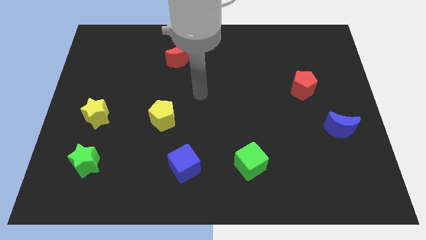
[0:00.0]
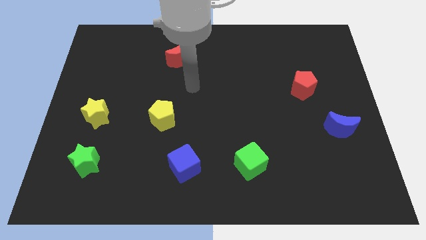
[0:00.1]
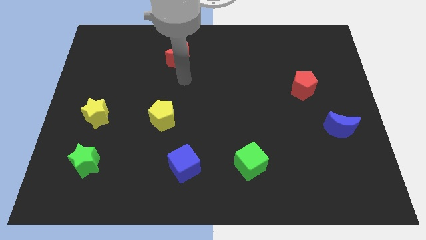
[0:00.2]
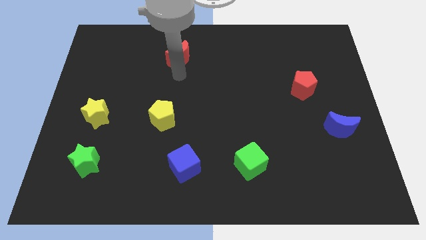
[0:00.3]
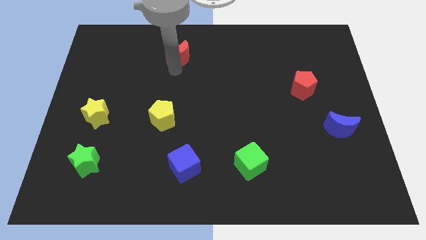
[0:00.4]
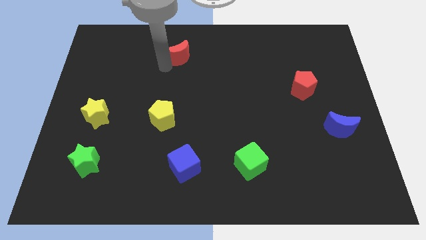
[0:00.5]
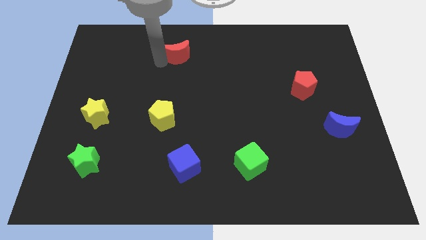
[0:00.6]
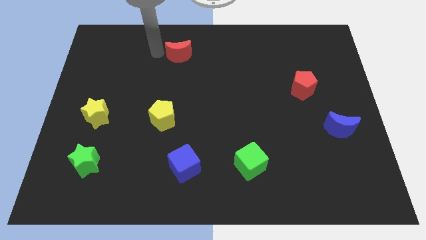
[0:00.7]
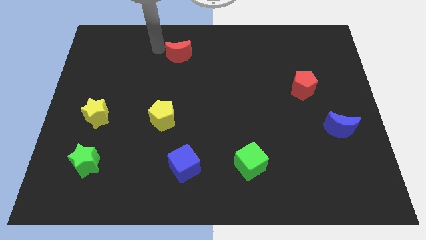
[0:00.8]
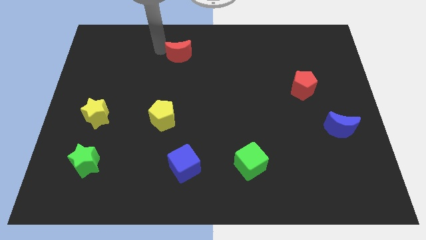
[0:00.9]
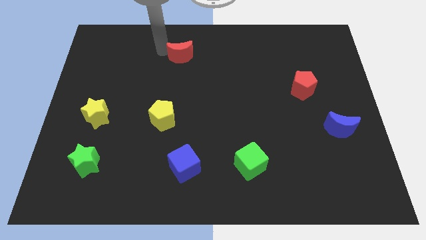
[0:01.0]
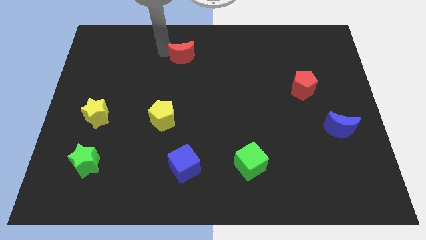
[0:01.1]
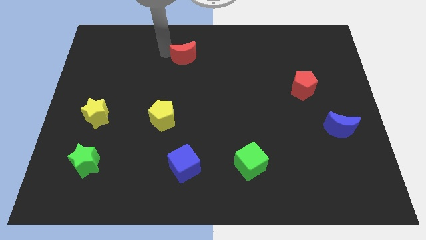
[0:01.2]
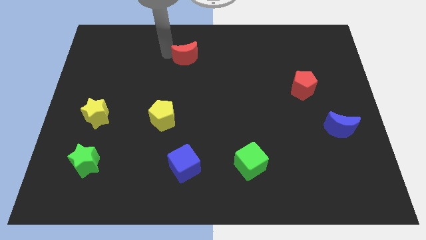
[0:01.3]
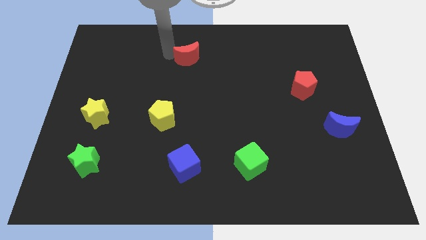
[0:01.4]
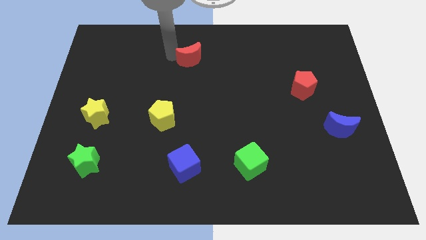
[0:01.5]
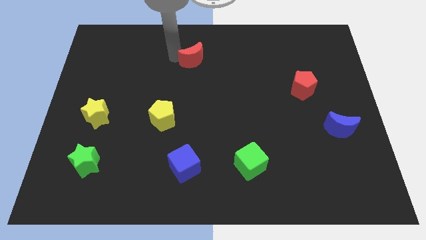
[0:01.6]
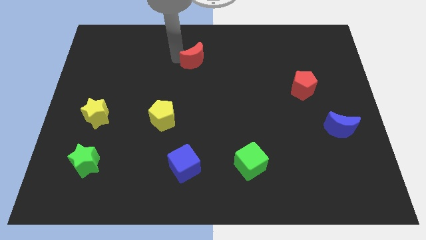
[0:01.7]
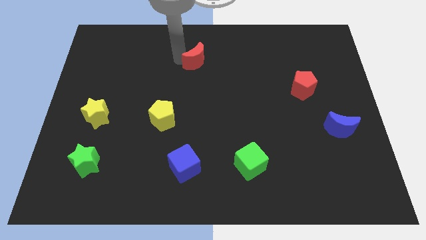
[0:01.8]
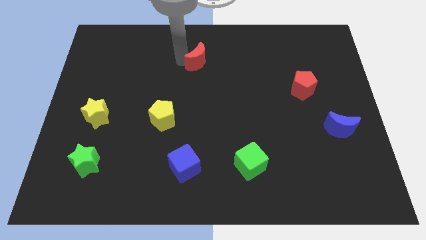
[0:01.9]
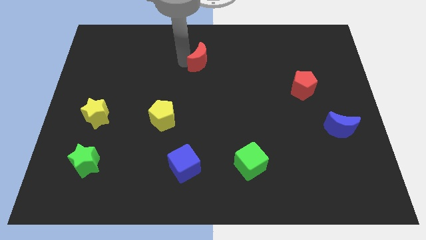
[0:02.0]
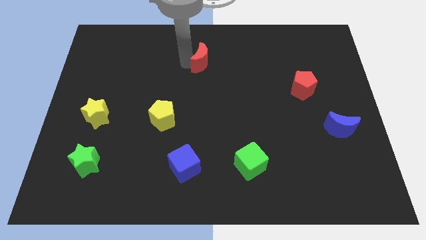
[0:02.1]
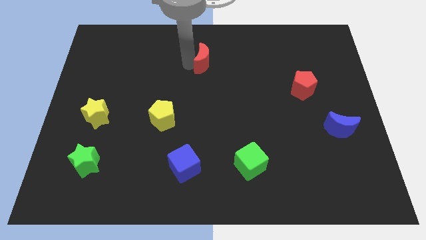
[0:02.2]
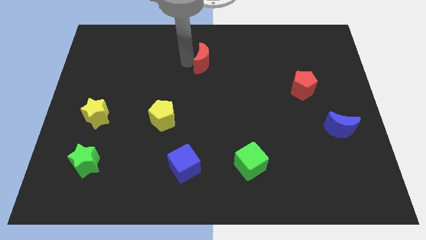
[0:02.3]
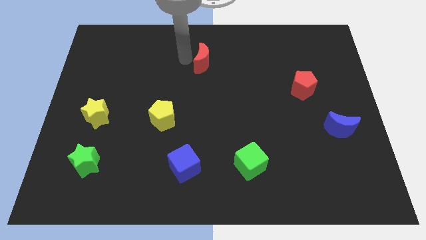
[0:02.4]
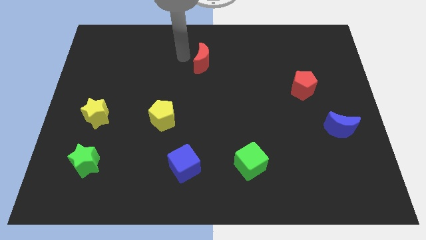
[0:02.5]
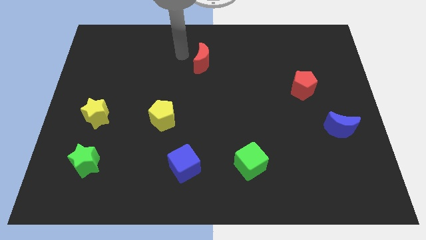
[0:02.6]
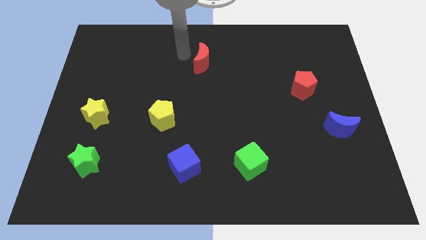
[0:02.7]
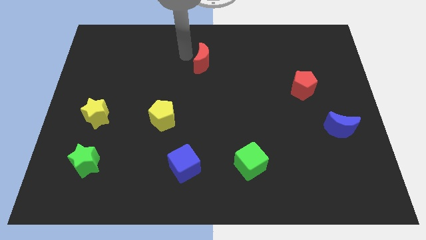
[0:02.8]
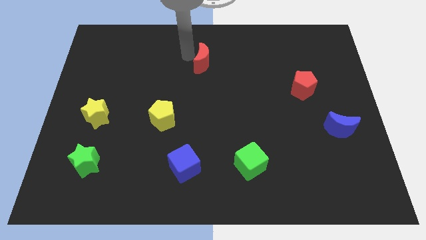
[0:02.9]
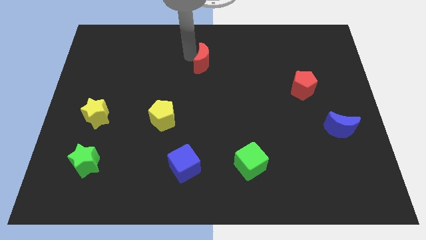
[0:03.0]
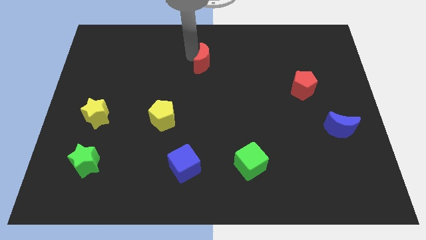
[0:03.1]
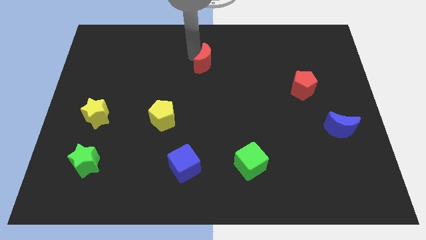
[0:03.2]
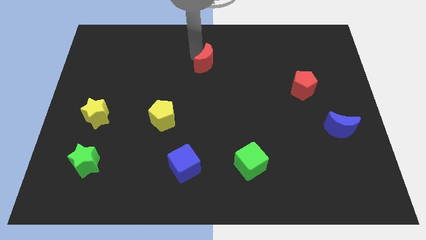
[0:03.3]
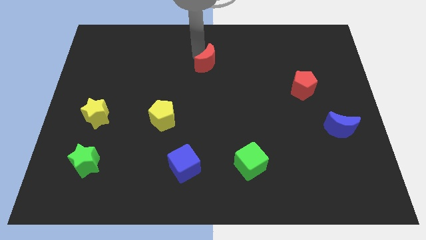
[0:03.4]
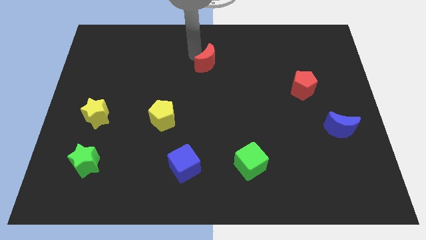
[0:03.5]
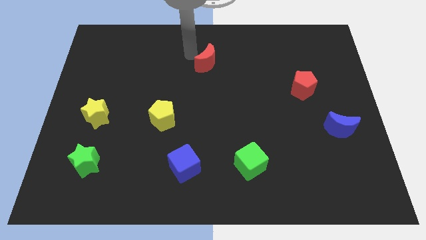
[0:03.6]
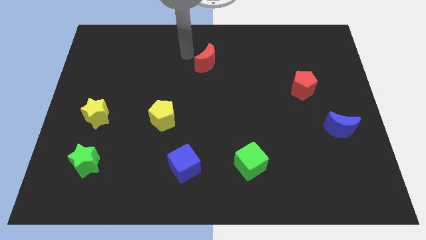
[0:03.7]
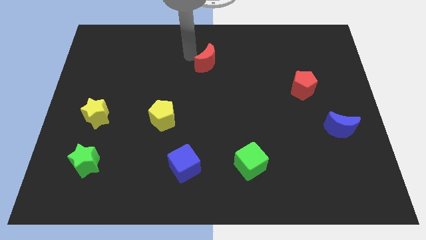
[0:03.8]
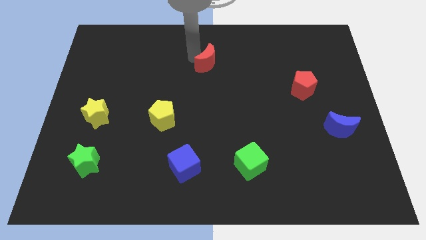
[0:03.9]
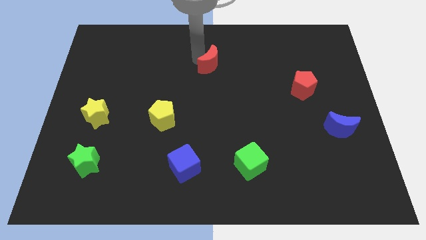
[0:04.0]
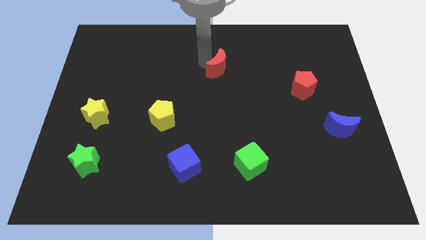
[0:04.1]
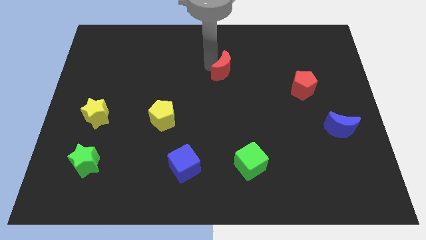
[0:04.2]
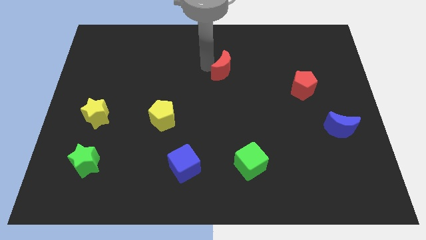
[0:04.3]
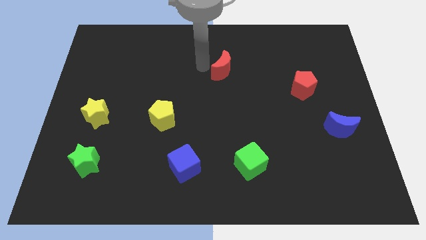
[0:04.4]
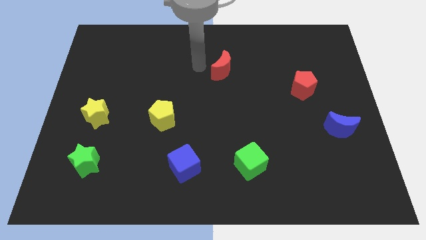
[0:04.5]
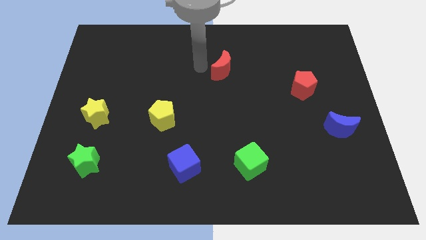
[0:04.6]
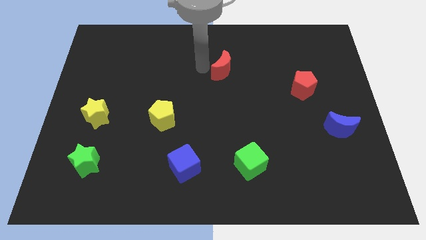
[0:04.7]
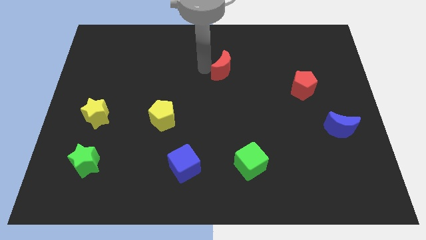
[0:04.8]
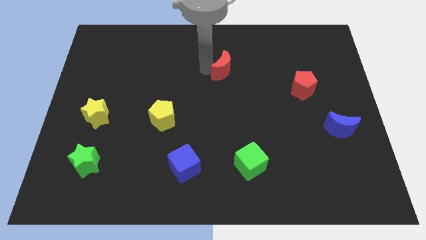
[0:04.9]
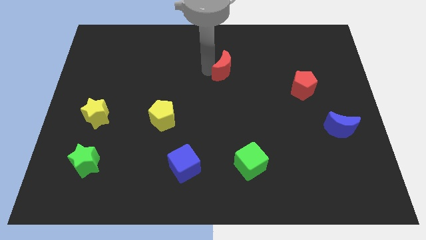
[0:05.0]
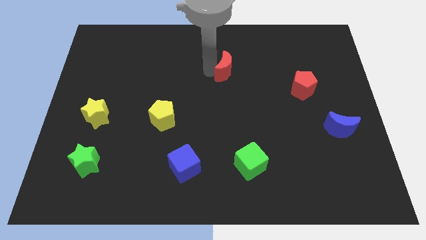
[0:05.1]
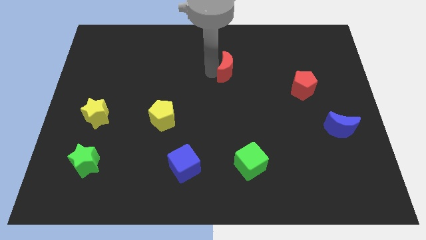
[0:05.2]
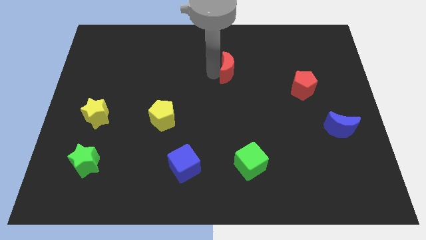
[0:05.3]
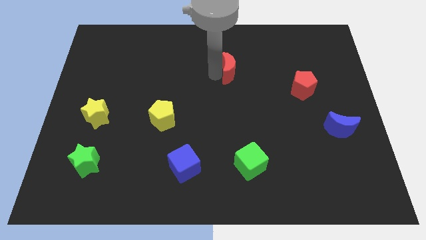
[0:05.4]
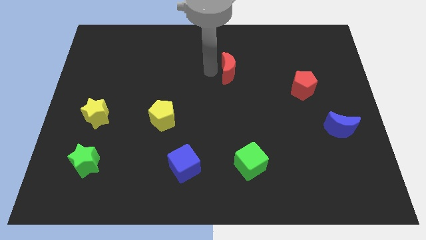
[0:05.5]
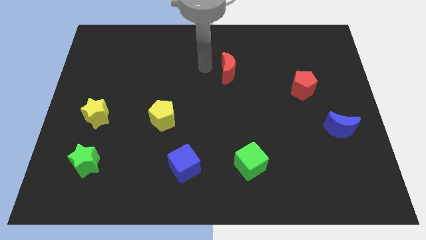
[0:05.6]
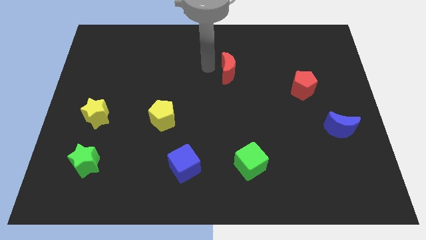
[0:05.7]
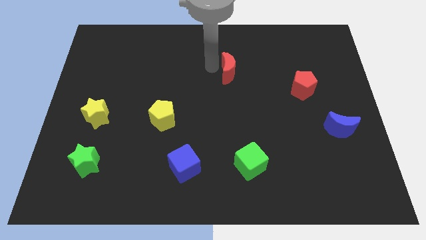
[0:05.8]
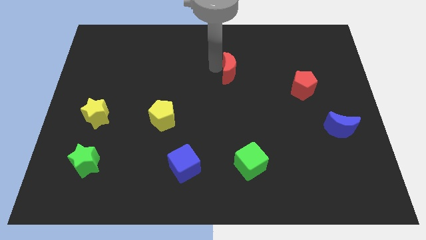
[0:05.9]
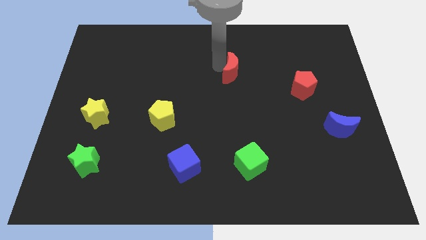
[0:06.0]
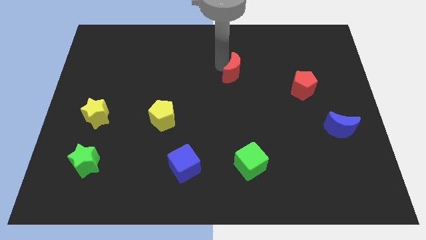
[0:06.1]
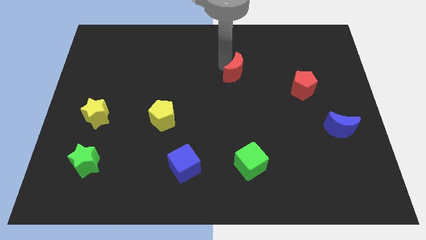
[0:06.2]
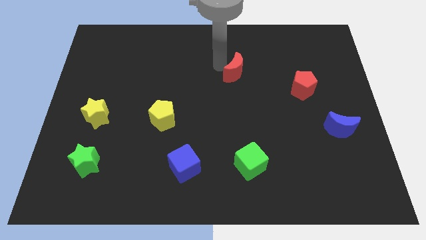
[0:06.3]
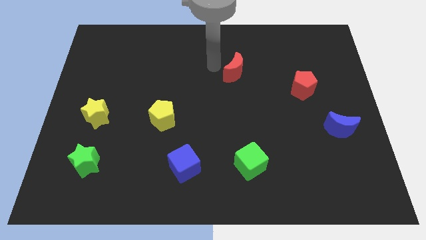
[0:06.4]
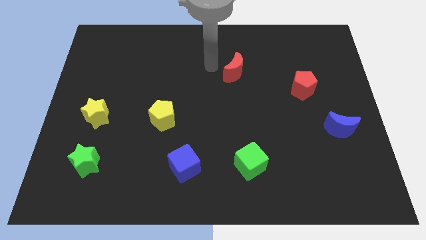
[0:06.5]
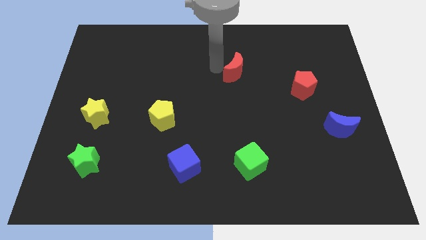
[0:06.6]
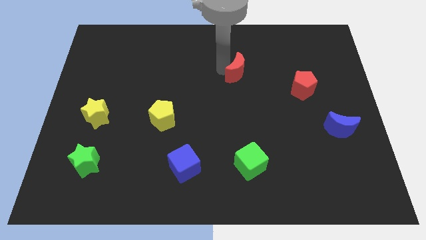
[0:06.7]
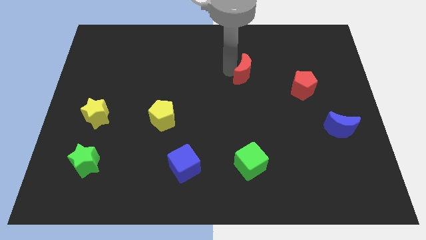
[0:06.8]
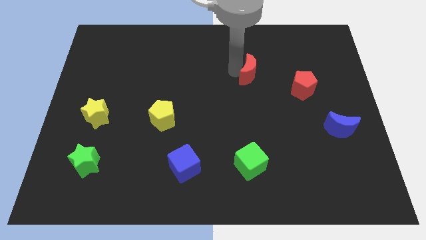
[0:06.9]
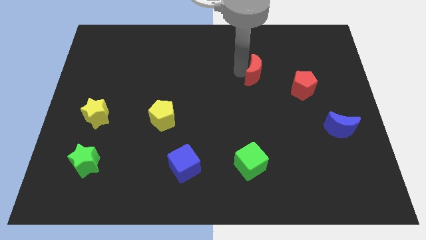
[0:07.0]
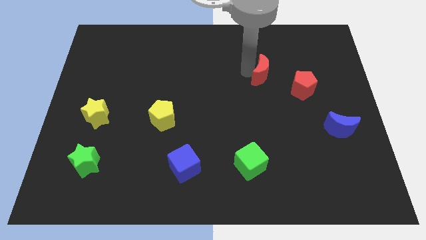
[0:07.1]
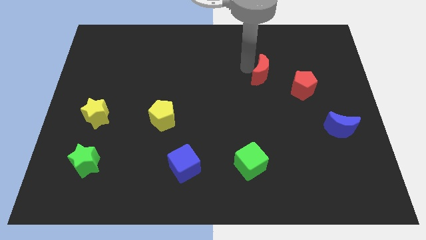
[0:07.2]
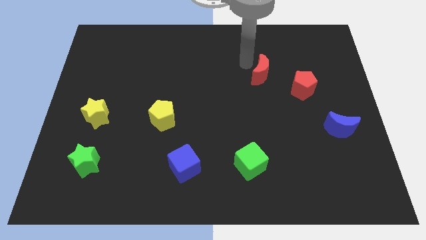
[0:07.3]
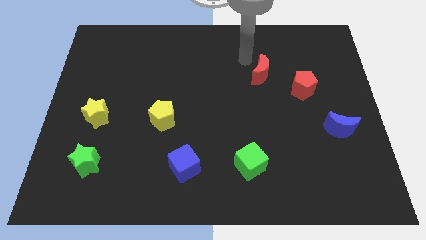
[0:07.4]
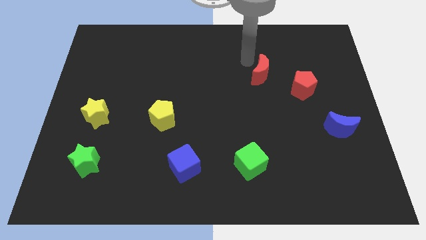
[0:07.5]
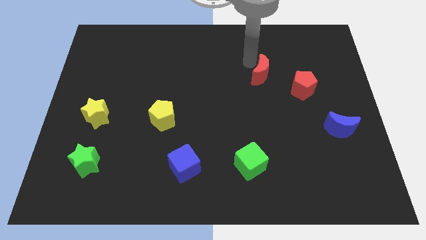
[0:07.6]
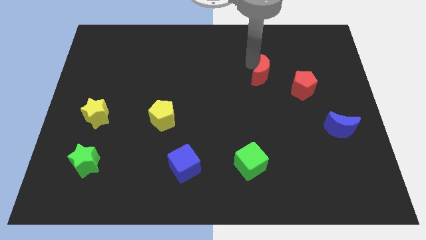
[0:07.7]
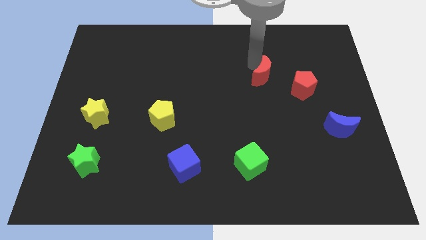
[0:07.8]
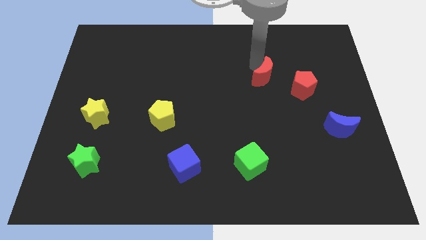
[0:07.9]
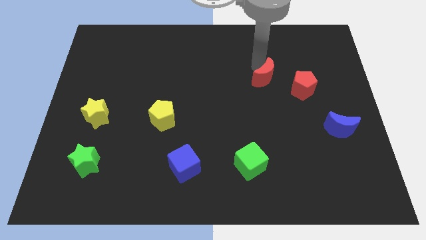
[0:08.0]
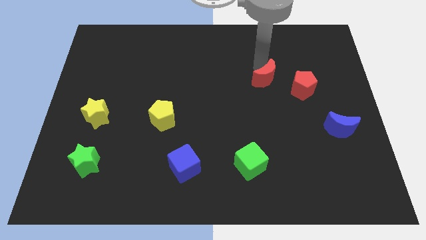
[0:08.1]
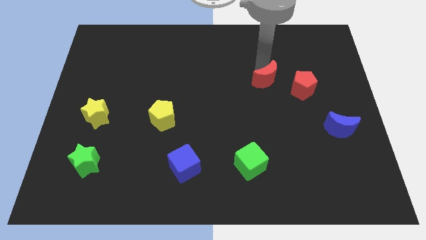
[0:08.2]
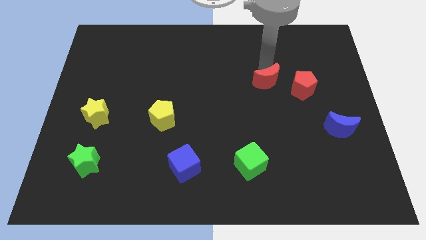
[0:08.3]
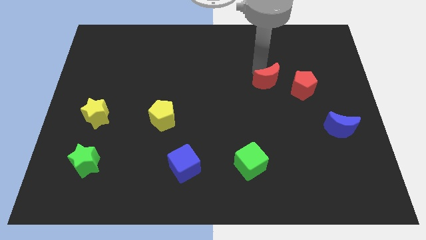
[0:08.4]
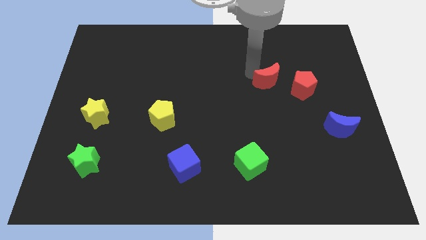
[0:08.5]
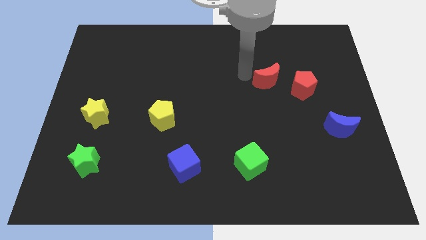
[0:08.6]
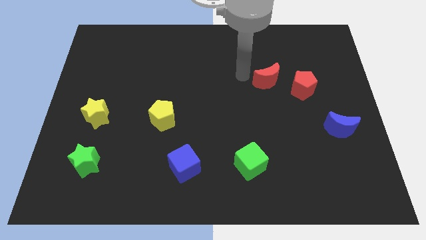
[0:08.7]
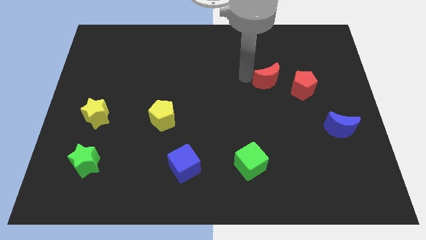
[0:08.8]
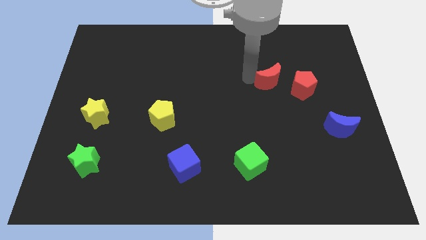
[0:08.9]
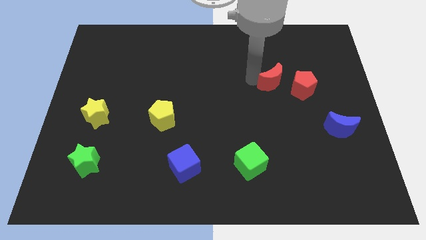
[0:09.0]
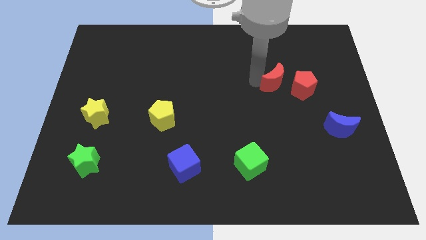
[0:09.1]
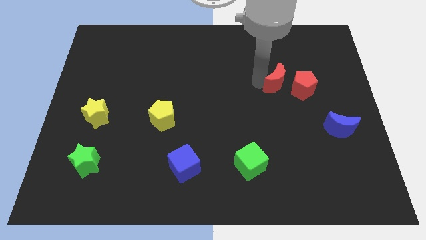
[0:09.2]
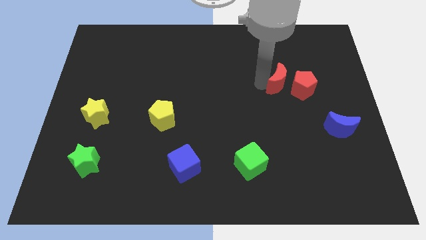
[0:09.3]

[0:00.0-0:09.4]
push the red moon to the red pentagon
